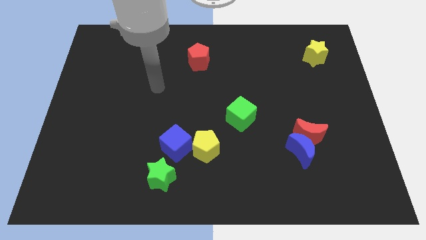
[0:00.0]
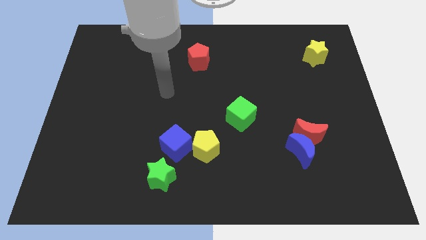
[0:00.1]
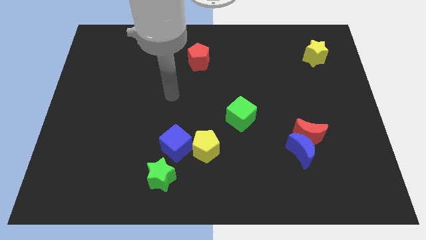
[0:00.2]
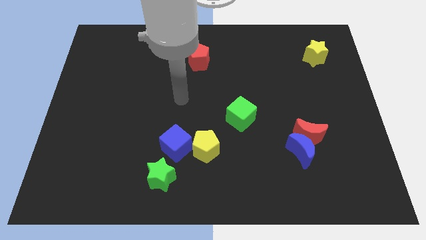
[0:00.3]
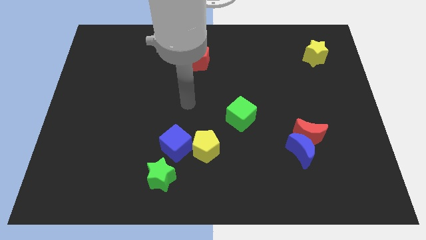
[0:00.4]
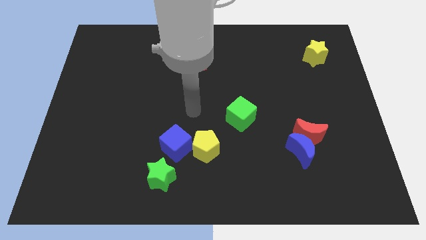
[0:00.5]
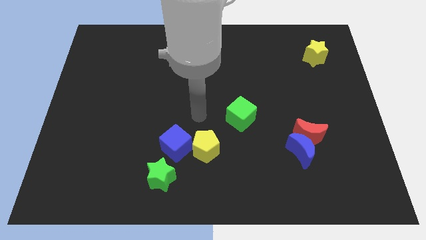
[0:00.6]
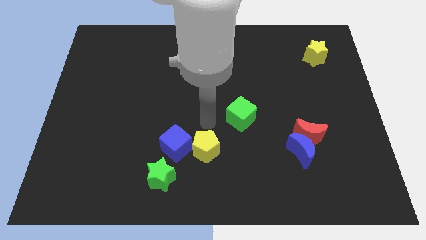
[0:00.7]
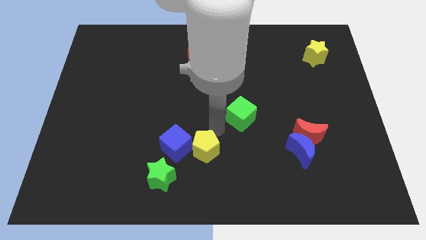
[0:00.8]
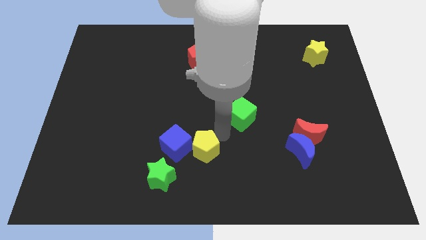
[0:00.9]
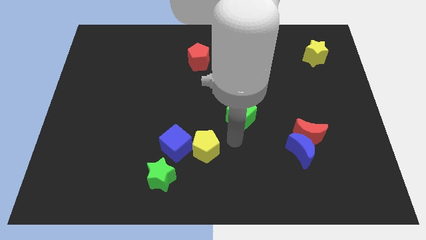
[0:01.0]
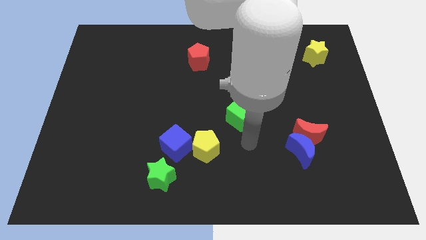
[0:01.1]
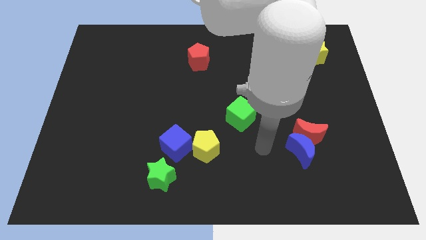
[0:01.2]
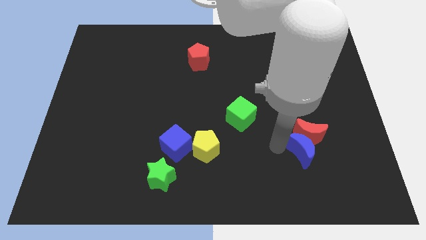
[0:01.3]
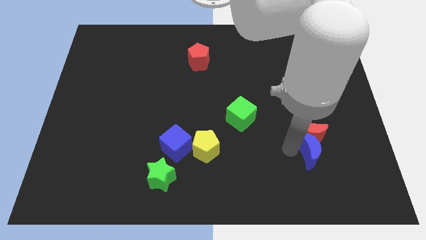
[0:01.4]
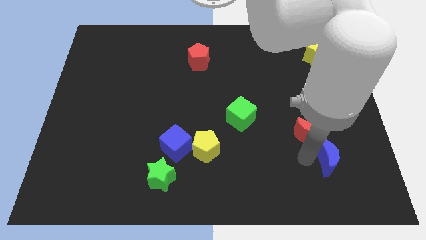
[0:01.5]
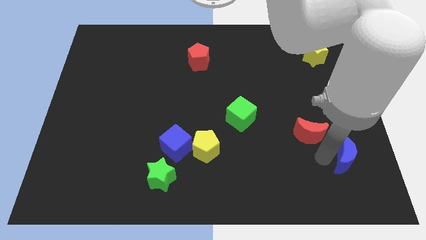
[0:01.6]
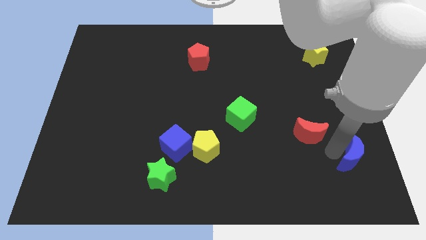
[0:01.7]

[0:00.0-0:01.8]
pull the red moon apart from the blue moon

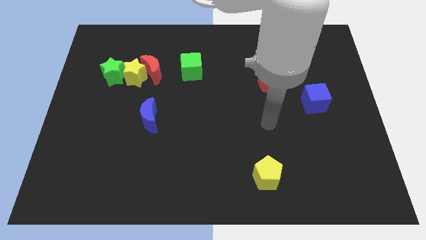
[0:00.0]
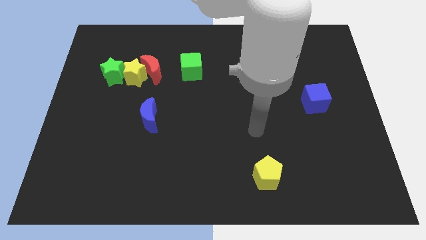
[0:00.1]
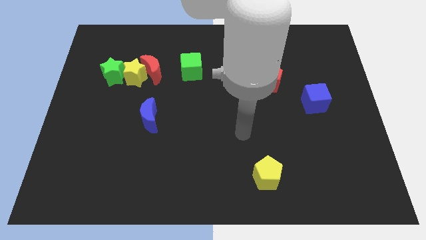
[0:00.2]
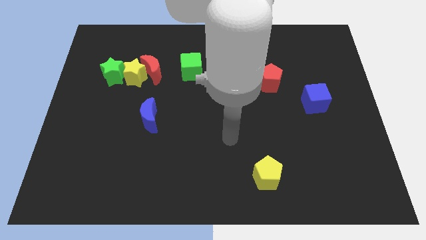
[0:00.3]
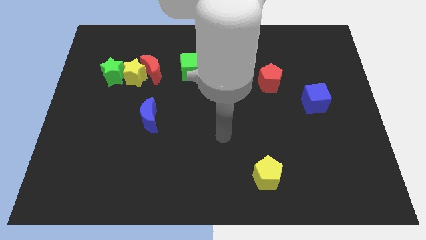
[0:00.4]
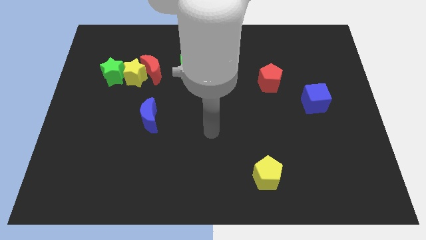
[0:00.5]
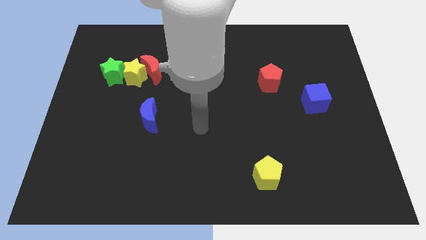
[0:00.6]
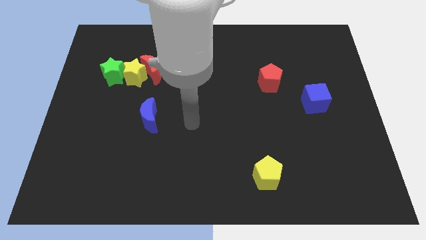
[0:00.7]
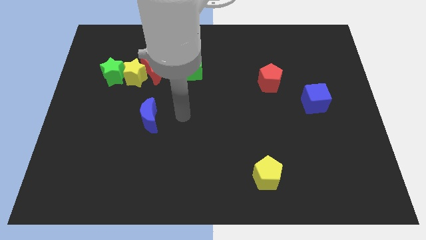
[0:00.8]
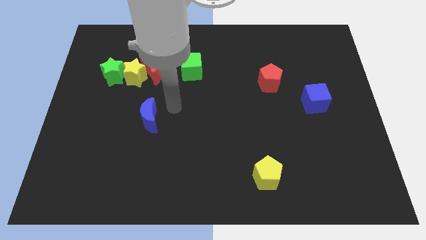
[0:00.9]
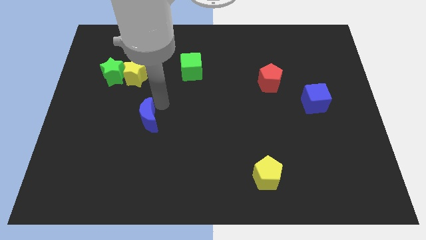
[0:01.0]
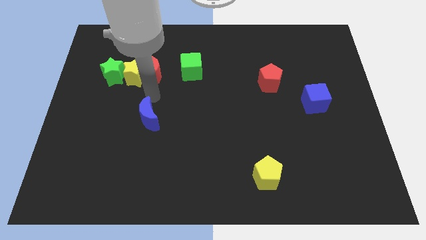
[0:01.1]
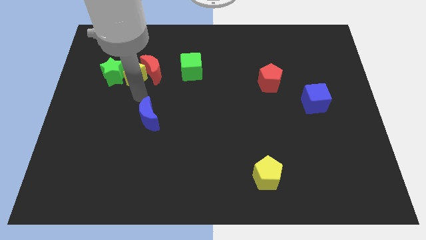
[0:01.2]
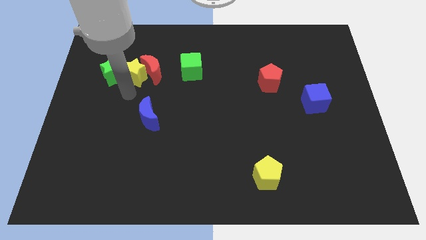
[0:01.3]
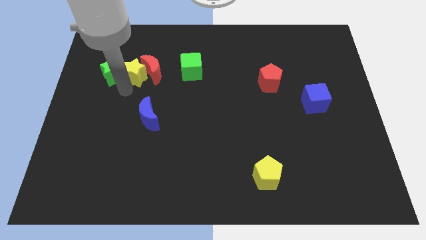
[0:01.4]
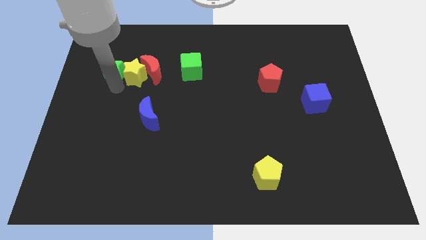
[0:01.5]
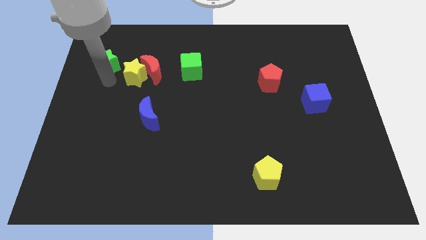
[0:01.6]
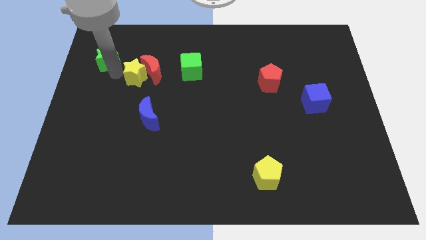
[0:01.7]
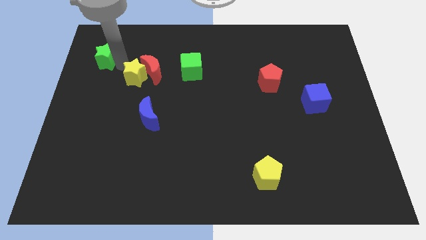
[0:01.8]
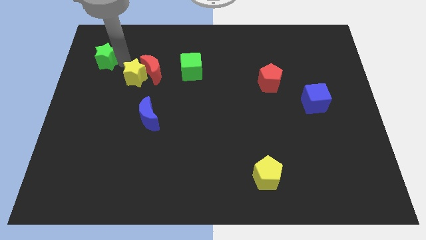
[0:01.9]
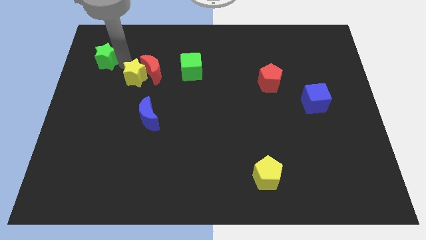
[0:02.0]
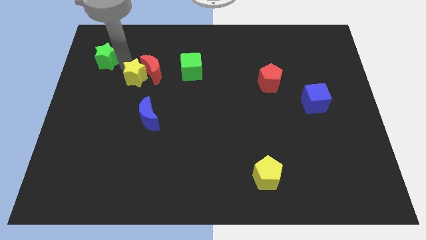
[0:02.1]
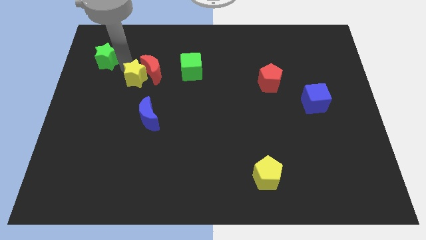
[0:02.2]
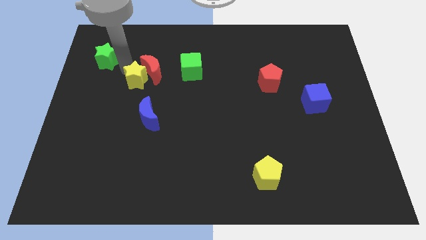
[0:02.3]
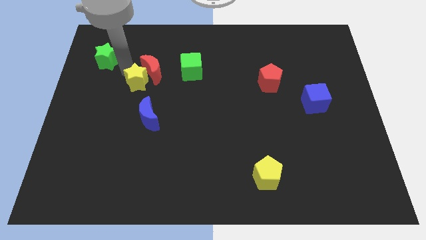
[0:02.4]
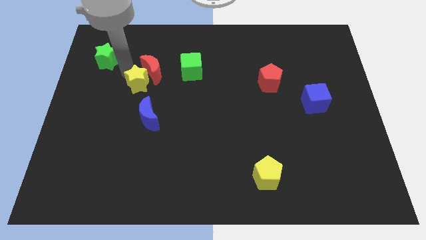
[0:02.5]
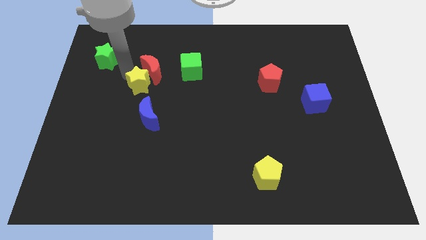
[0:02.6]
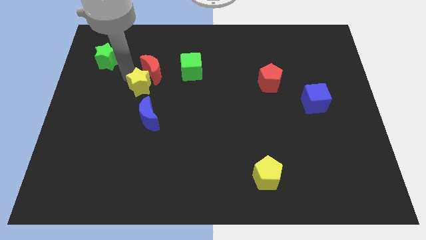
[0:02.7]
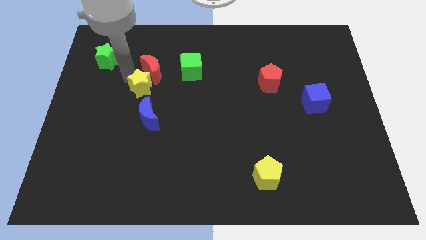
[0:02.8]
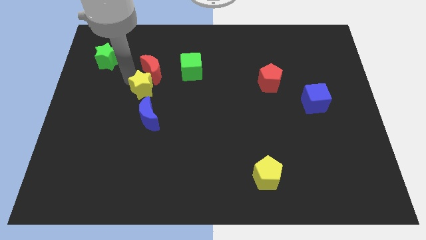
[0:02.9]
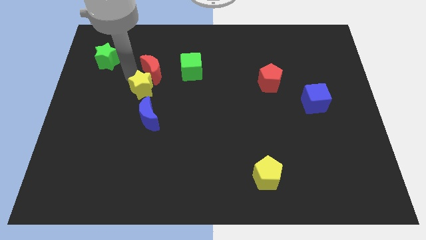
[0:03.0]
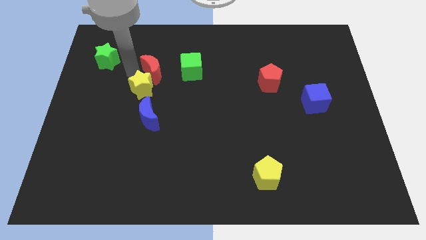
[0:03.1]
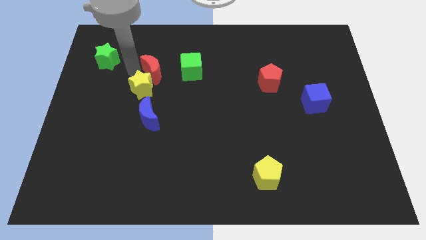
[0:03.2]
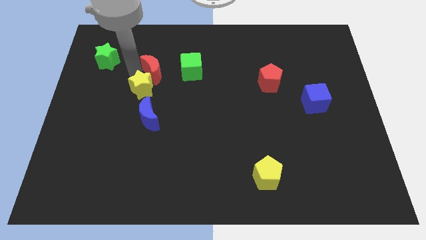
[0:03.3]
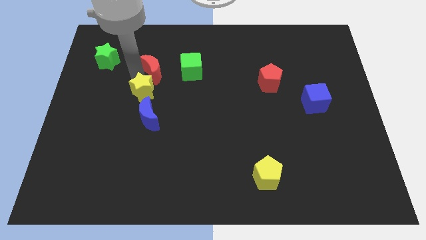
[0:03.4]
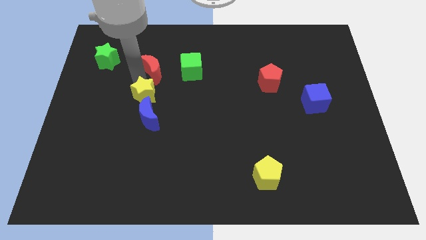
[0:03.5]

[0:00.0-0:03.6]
move the yellow star away from the red moon and green star

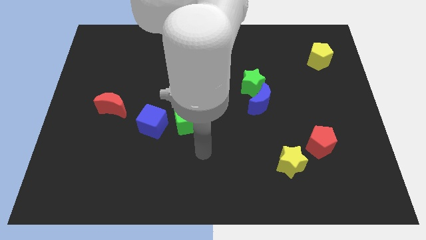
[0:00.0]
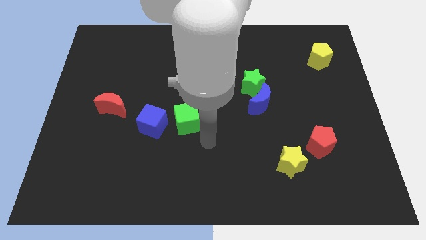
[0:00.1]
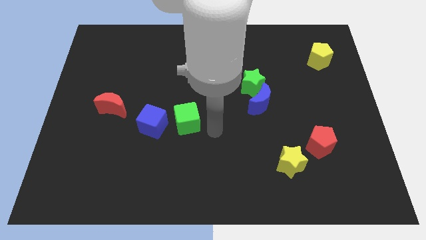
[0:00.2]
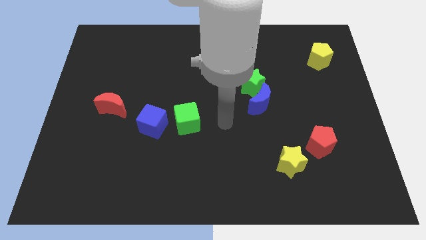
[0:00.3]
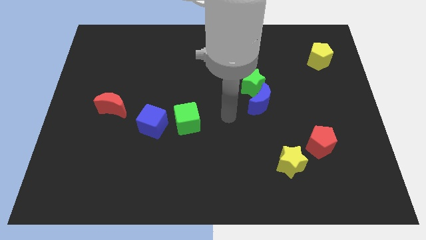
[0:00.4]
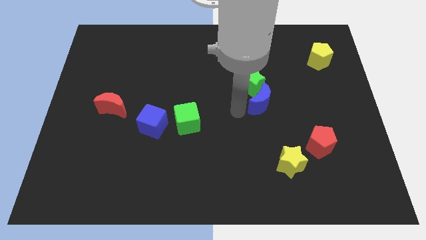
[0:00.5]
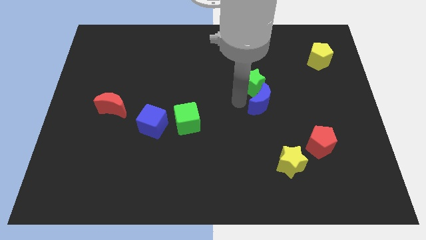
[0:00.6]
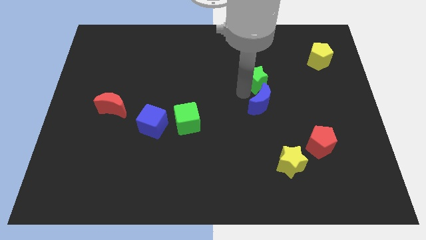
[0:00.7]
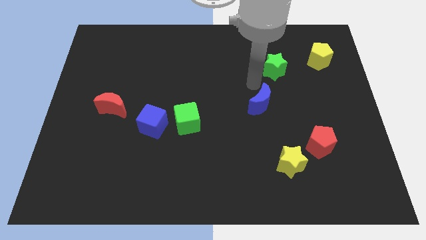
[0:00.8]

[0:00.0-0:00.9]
separate the blue moon from the green star

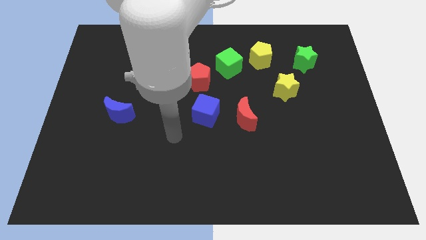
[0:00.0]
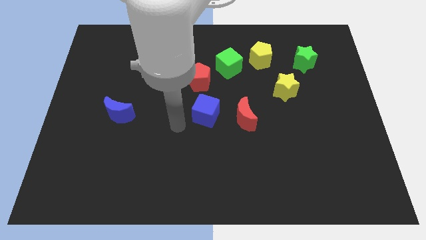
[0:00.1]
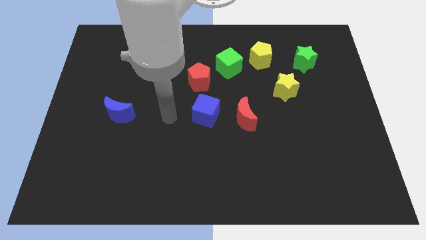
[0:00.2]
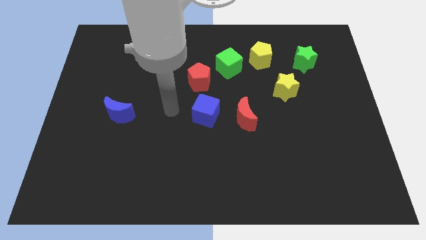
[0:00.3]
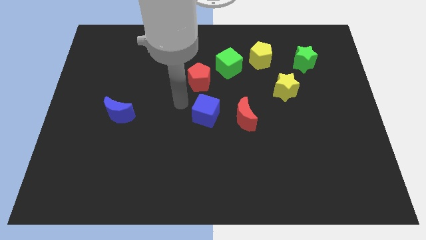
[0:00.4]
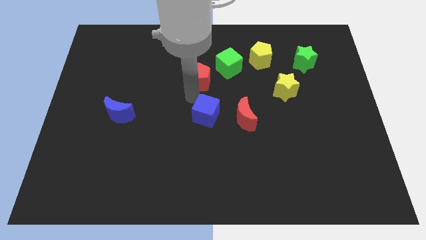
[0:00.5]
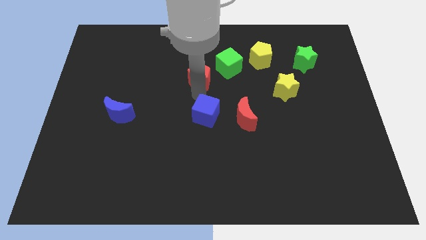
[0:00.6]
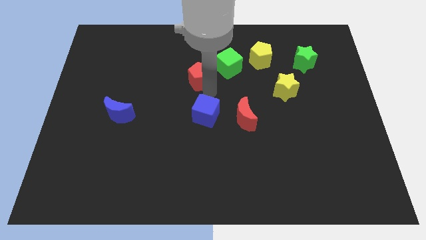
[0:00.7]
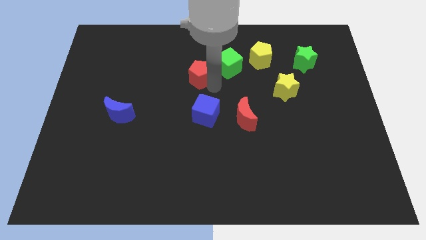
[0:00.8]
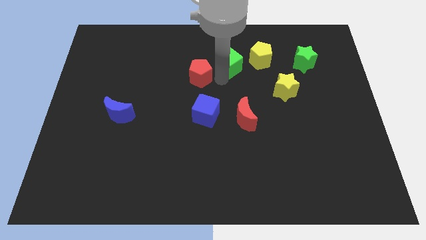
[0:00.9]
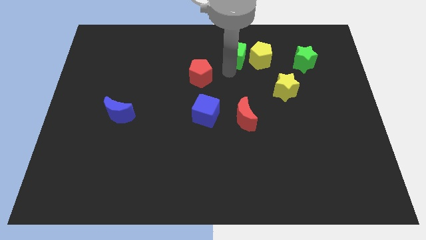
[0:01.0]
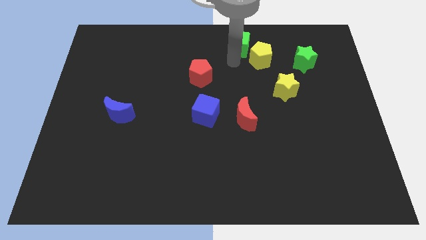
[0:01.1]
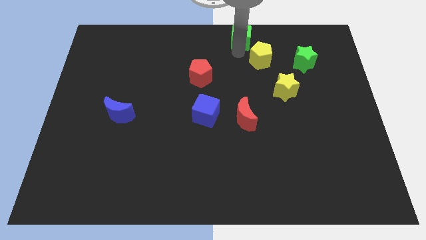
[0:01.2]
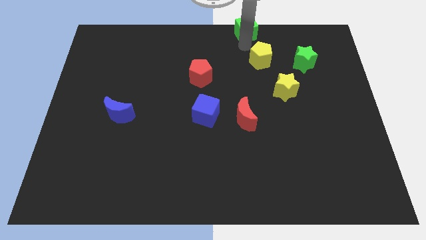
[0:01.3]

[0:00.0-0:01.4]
separate the yellow pentagon from the green cube

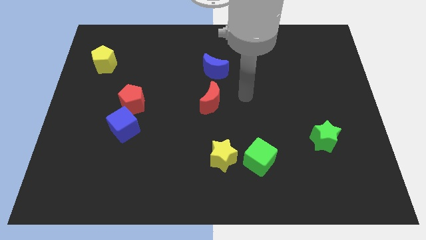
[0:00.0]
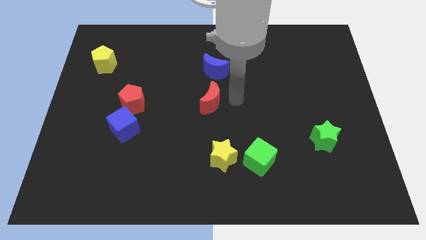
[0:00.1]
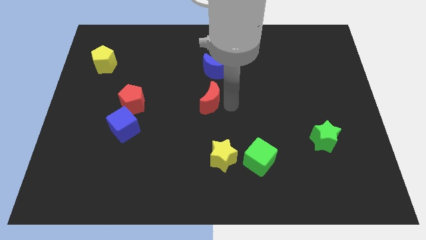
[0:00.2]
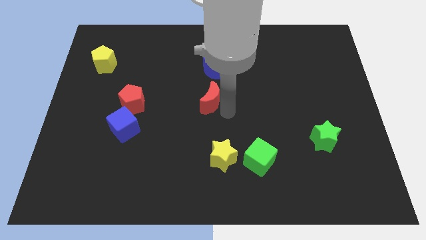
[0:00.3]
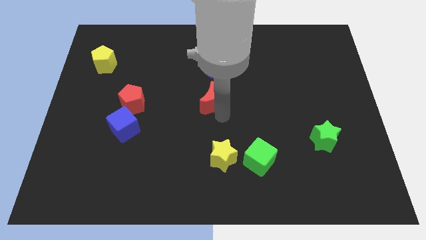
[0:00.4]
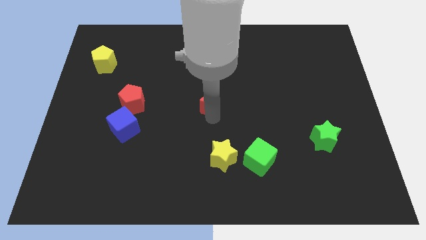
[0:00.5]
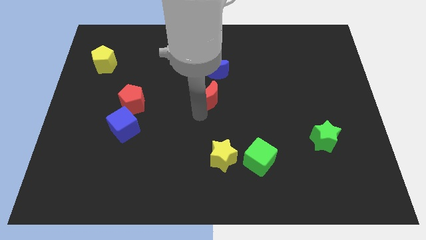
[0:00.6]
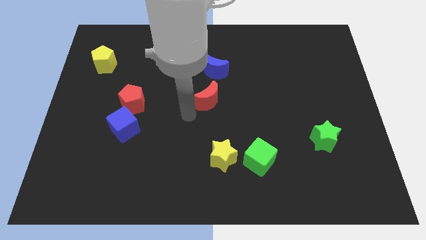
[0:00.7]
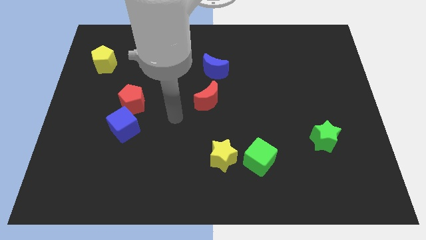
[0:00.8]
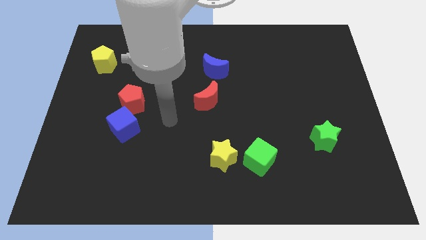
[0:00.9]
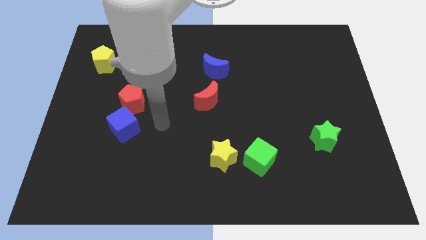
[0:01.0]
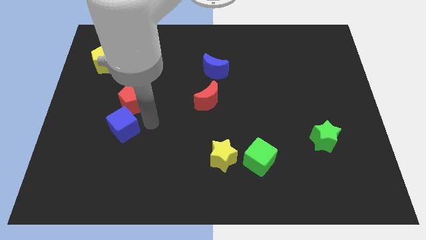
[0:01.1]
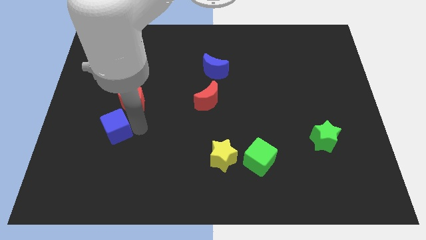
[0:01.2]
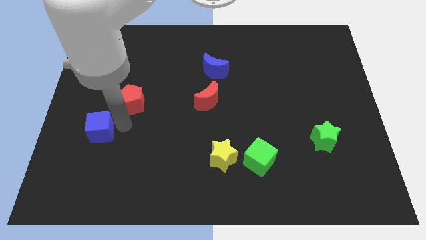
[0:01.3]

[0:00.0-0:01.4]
move the red pentagon away from the blue cube

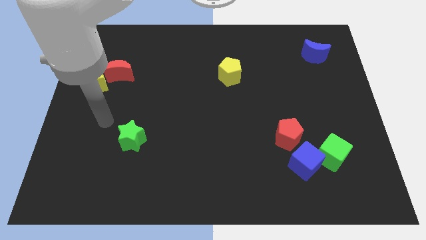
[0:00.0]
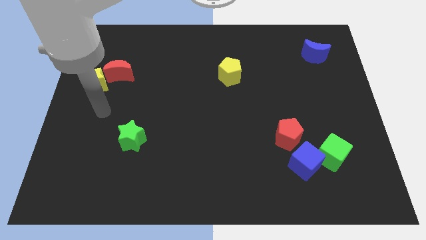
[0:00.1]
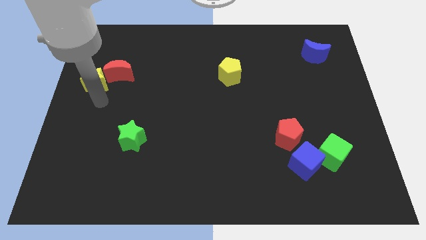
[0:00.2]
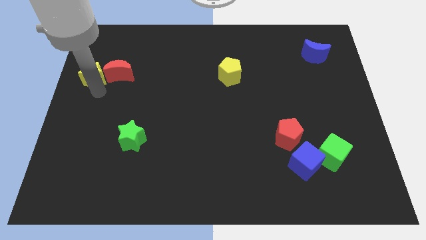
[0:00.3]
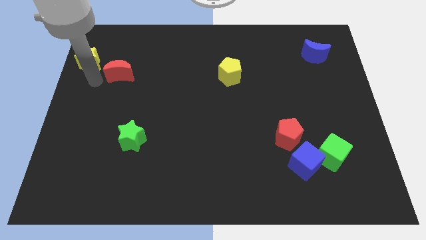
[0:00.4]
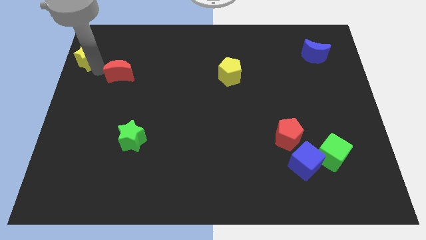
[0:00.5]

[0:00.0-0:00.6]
separate the red moon from the yellow star
